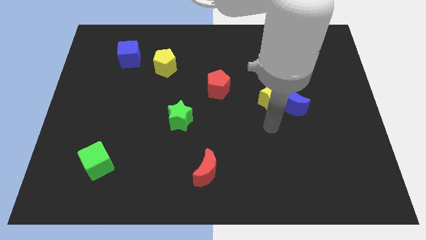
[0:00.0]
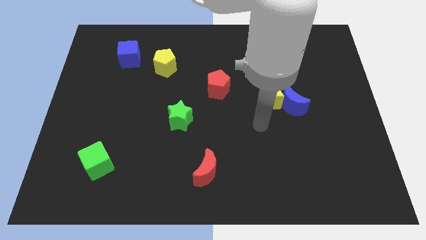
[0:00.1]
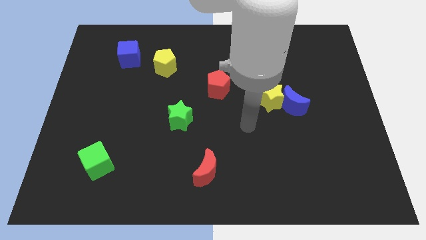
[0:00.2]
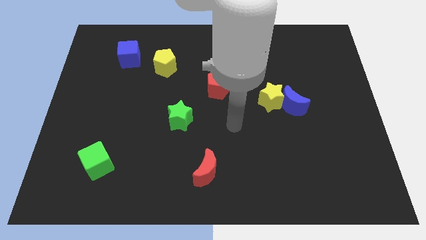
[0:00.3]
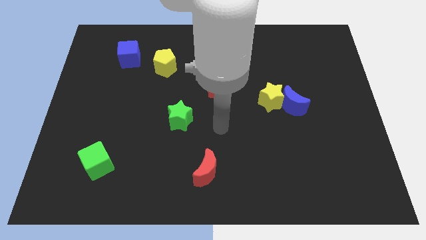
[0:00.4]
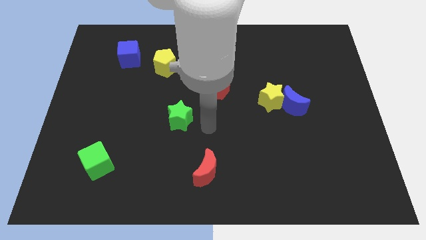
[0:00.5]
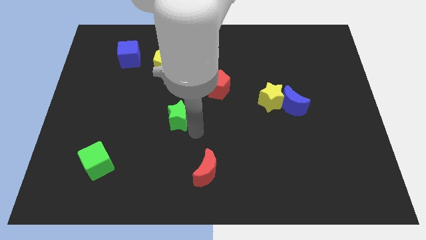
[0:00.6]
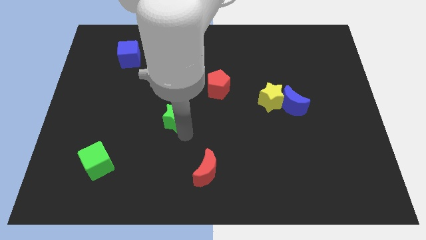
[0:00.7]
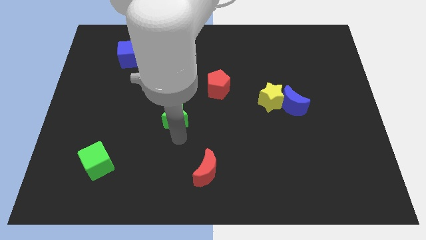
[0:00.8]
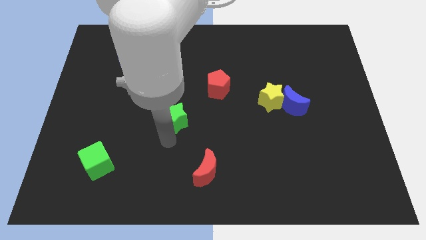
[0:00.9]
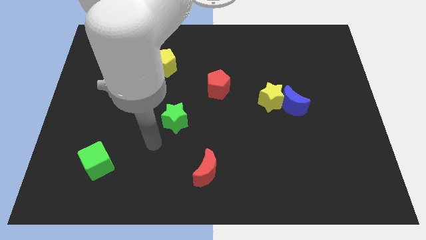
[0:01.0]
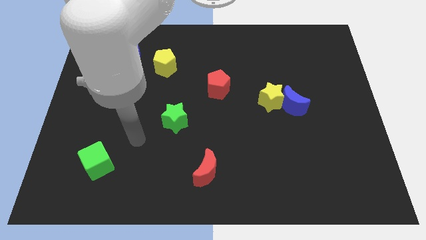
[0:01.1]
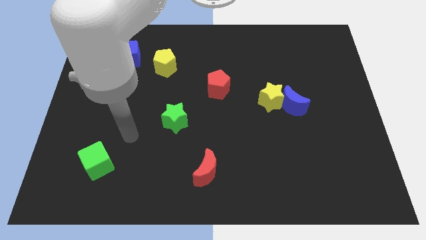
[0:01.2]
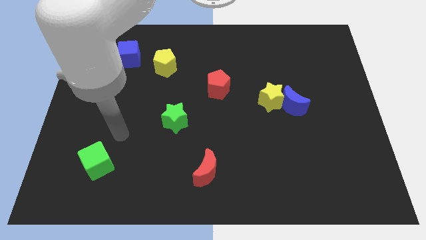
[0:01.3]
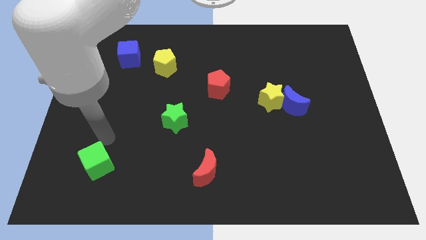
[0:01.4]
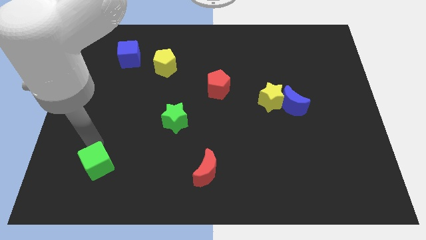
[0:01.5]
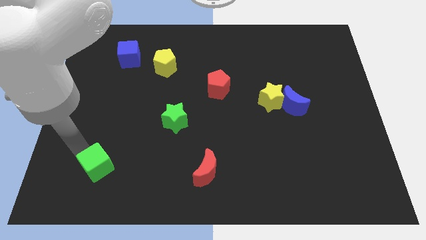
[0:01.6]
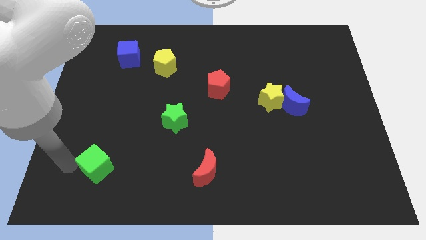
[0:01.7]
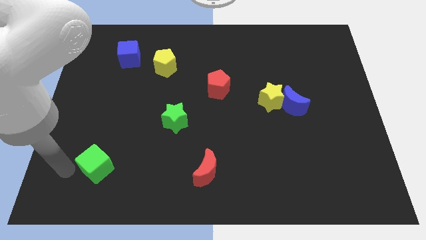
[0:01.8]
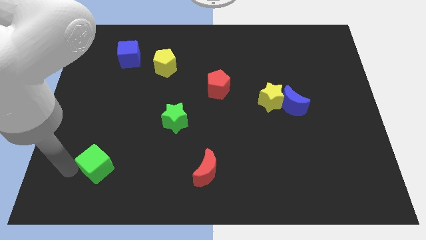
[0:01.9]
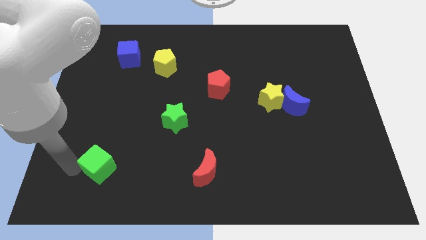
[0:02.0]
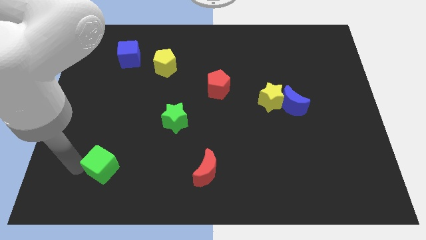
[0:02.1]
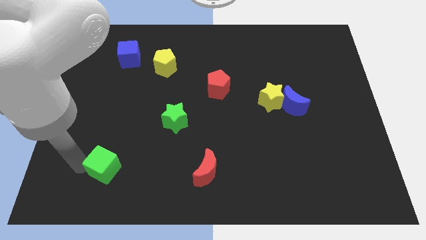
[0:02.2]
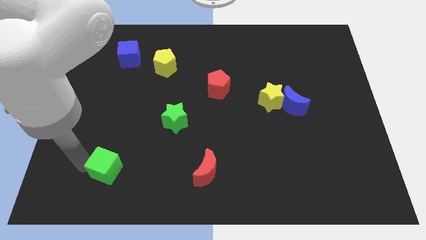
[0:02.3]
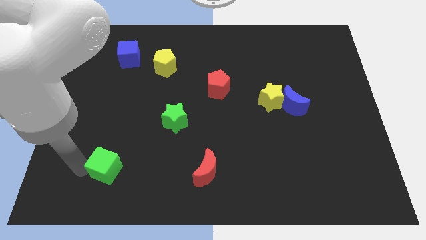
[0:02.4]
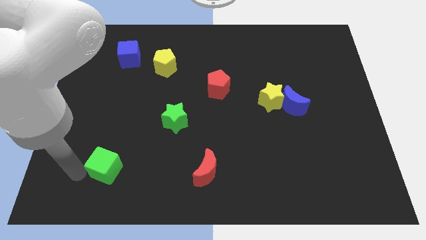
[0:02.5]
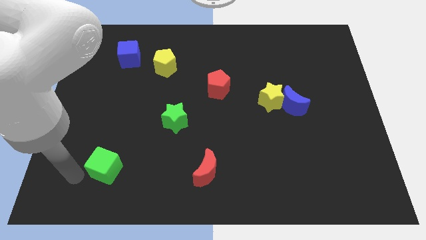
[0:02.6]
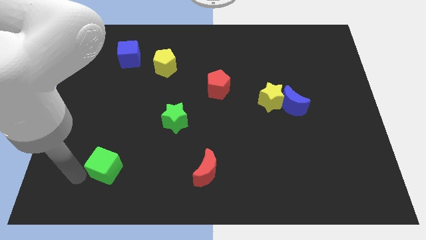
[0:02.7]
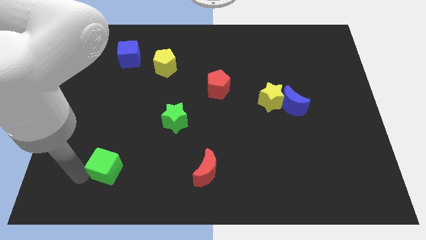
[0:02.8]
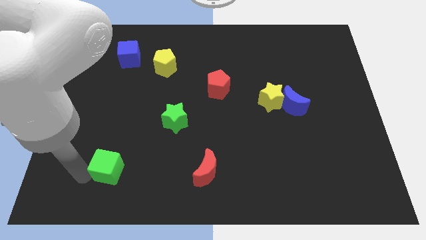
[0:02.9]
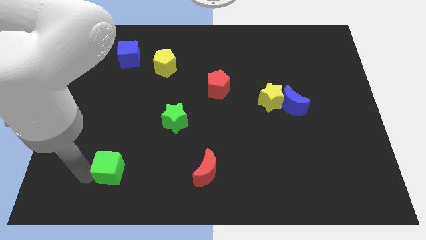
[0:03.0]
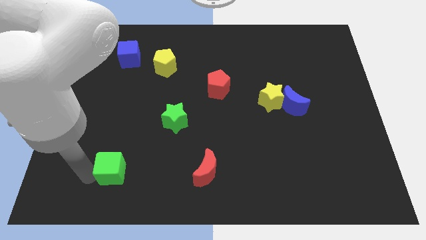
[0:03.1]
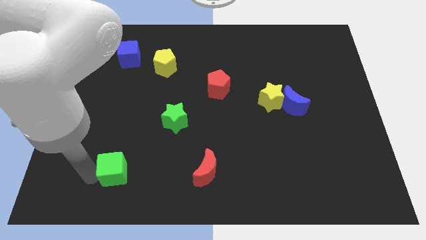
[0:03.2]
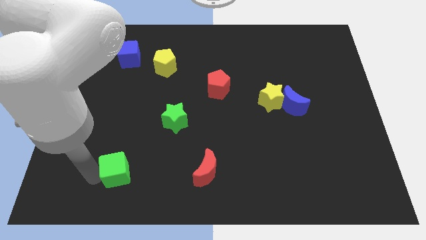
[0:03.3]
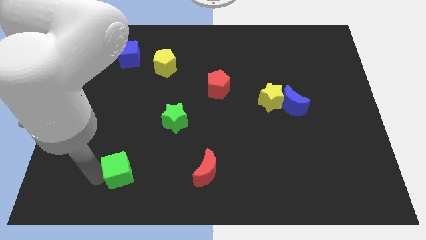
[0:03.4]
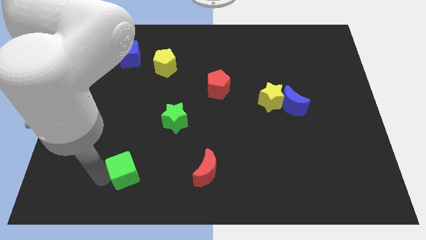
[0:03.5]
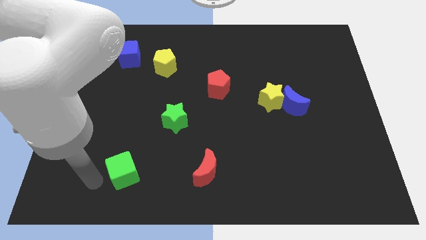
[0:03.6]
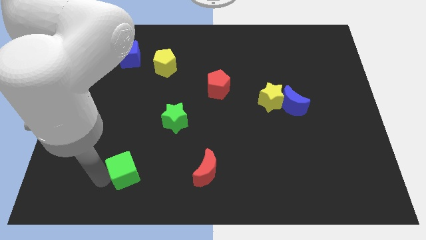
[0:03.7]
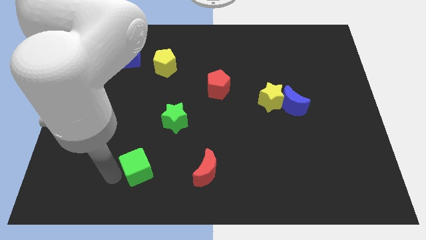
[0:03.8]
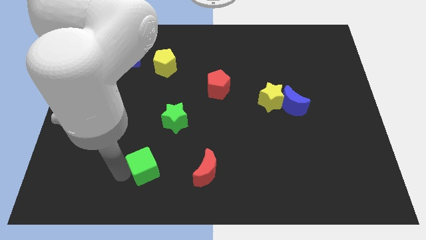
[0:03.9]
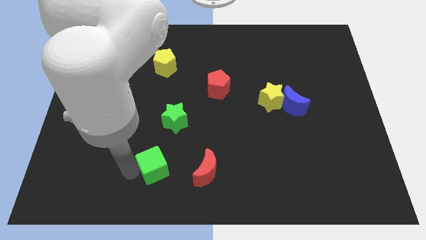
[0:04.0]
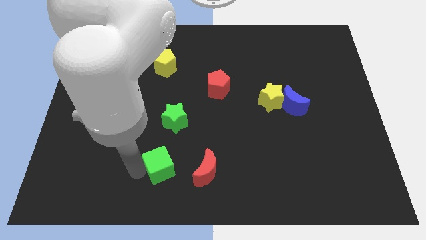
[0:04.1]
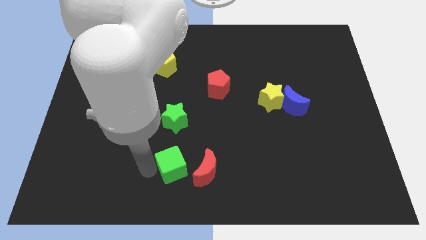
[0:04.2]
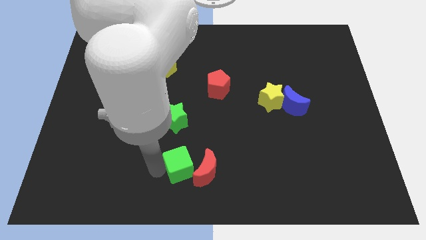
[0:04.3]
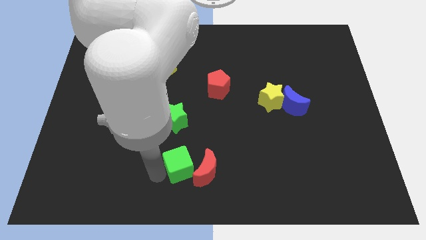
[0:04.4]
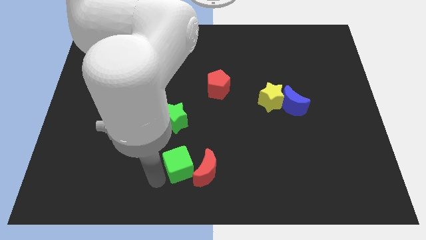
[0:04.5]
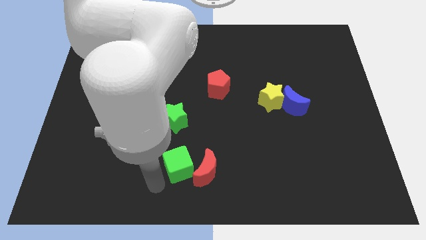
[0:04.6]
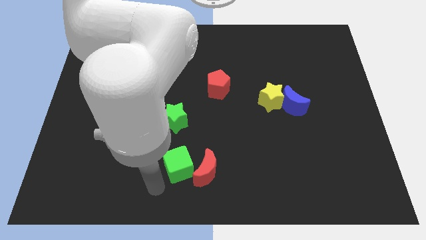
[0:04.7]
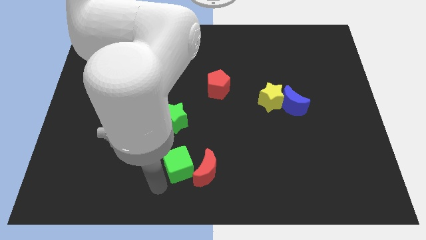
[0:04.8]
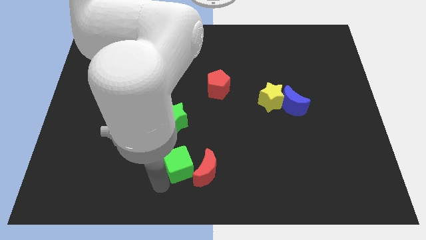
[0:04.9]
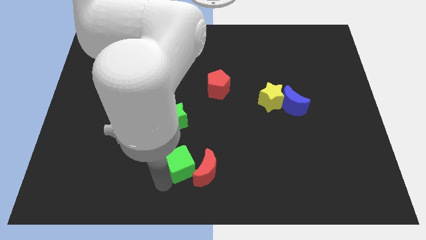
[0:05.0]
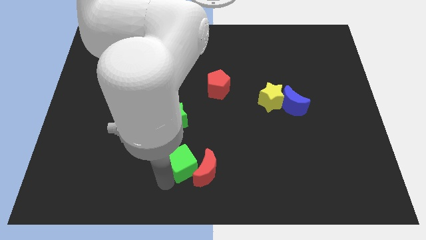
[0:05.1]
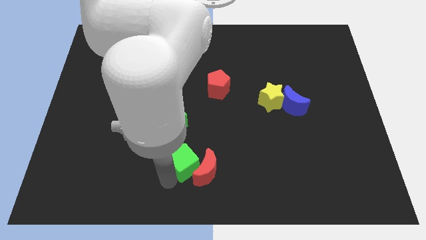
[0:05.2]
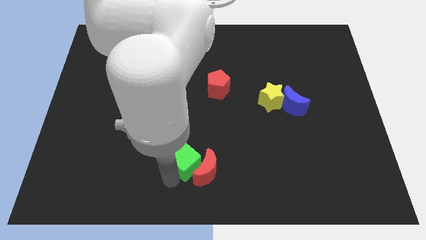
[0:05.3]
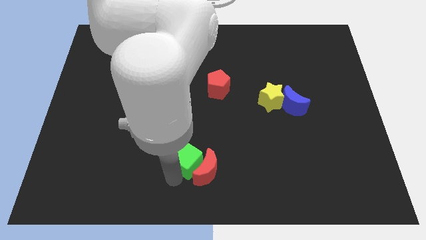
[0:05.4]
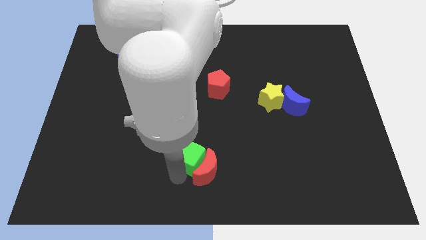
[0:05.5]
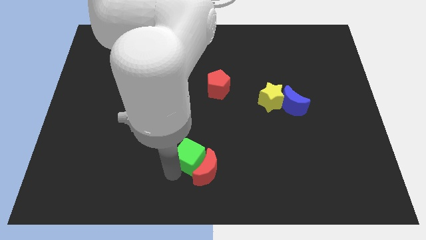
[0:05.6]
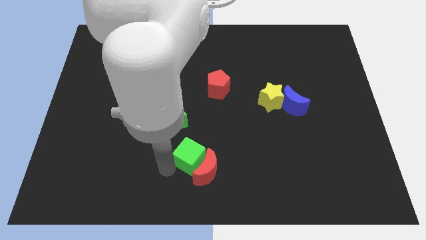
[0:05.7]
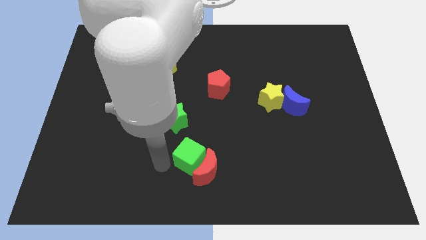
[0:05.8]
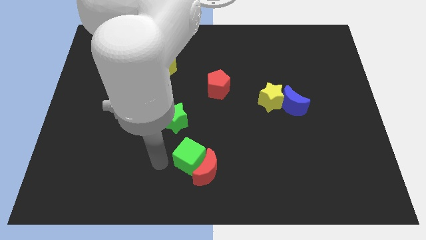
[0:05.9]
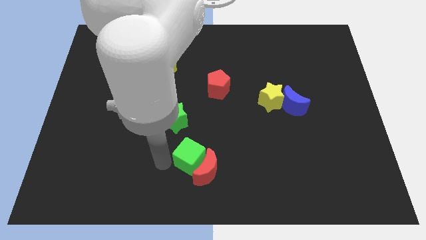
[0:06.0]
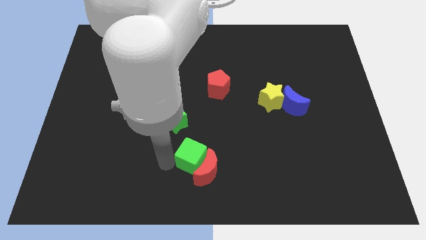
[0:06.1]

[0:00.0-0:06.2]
move the green cube right

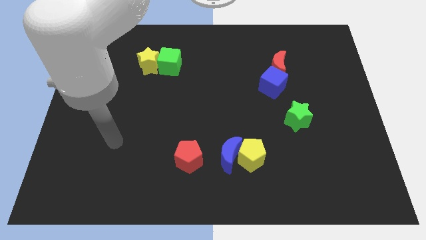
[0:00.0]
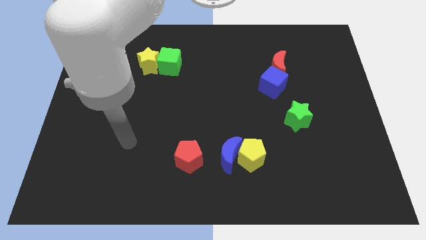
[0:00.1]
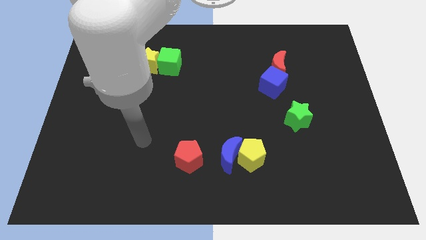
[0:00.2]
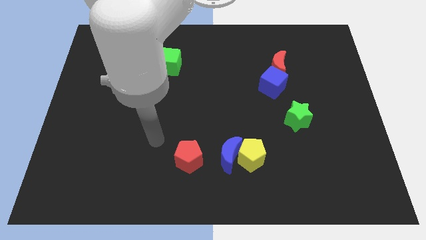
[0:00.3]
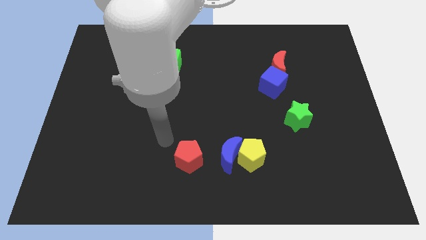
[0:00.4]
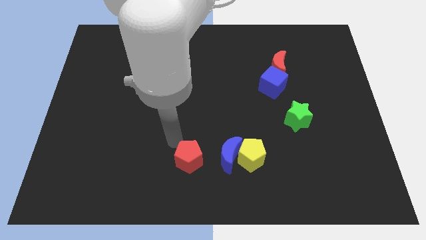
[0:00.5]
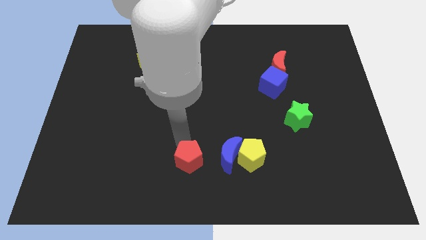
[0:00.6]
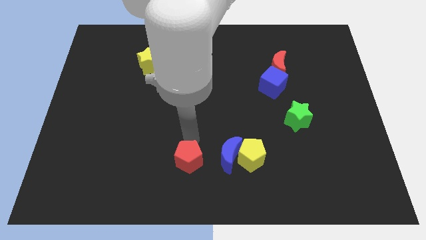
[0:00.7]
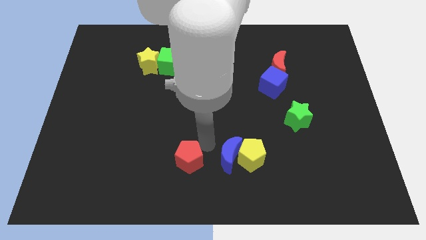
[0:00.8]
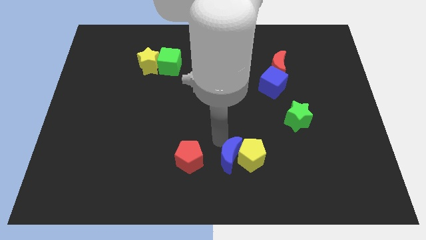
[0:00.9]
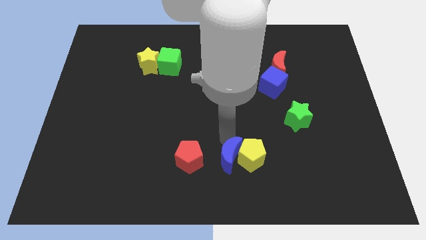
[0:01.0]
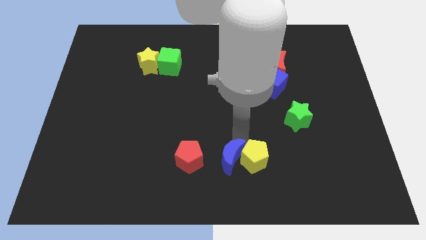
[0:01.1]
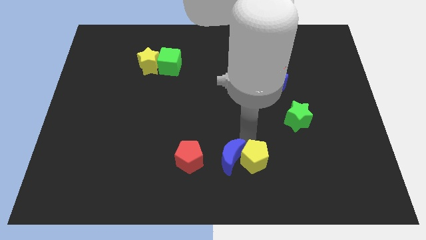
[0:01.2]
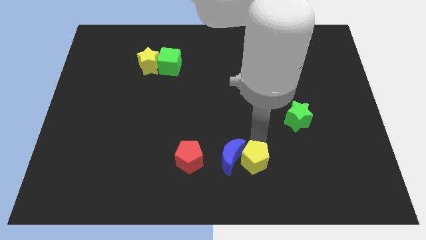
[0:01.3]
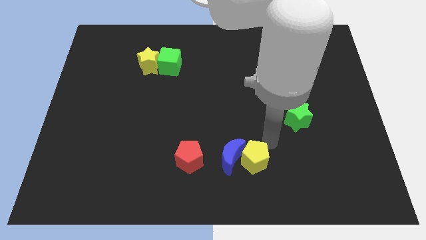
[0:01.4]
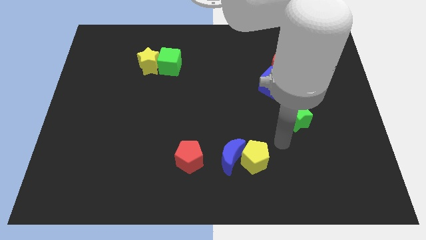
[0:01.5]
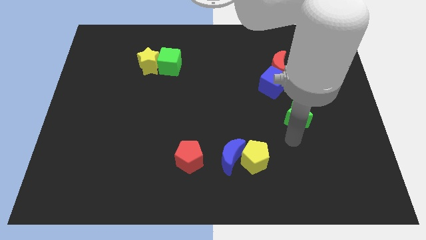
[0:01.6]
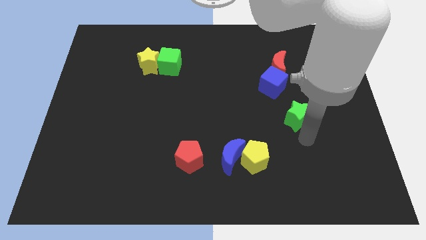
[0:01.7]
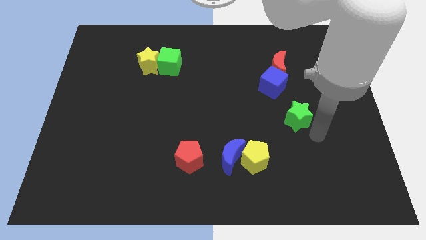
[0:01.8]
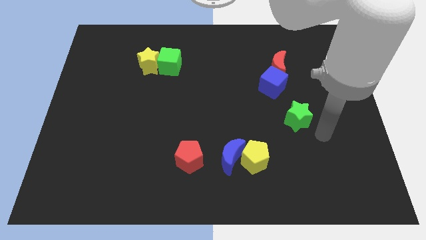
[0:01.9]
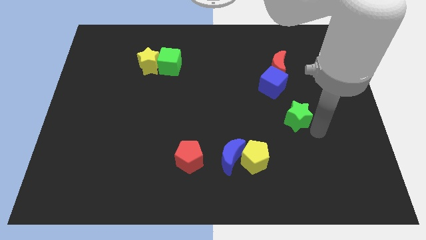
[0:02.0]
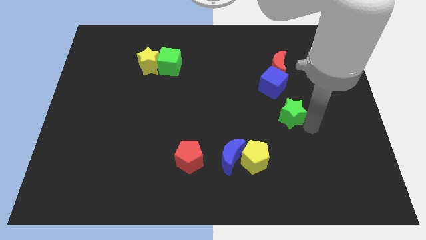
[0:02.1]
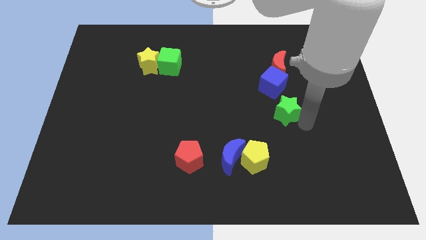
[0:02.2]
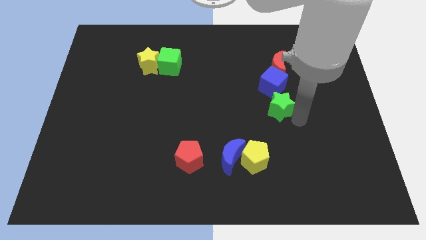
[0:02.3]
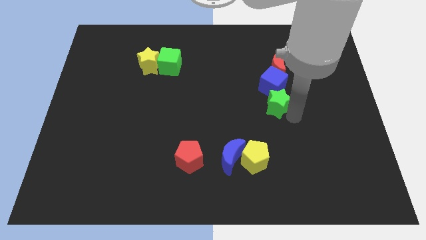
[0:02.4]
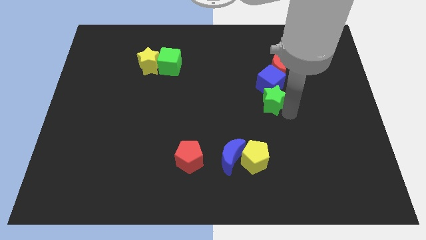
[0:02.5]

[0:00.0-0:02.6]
slide the green star a little diagonally up and to the left
